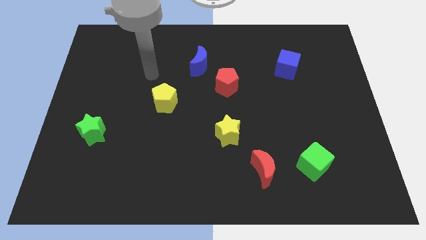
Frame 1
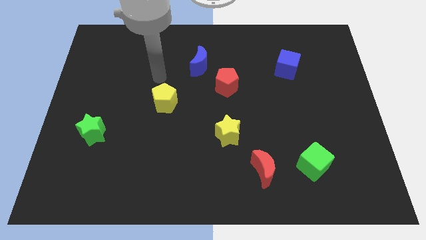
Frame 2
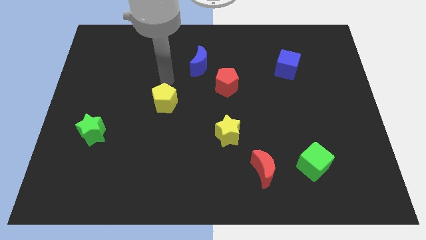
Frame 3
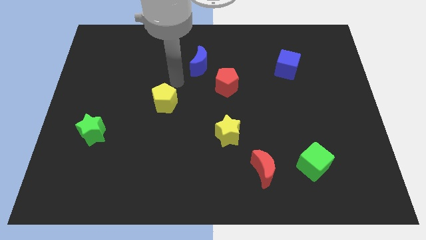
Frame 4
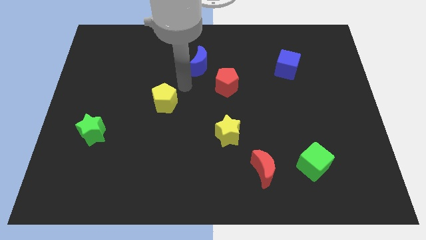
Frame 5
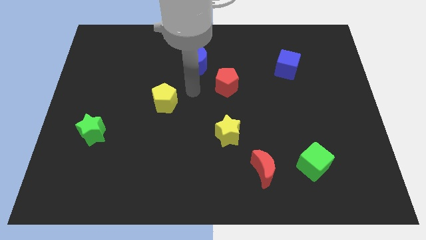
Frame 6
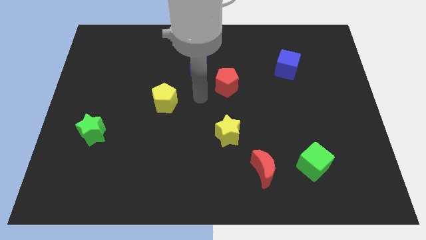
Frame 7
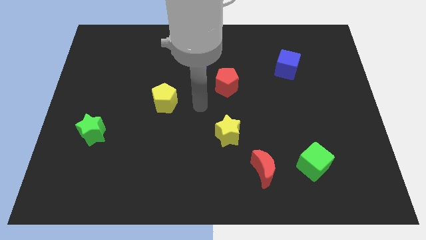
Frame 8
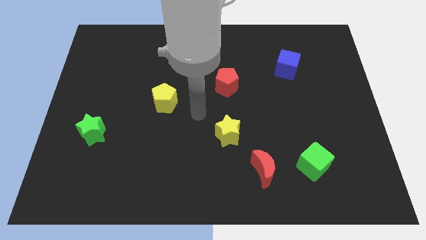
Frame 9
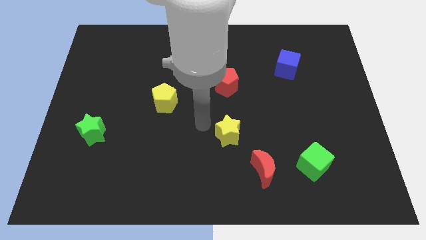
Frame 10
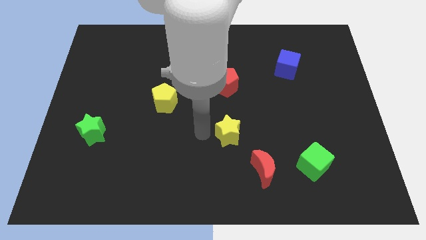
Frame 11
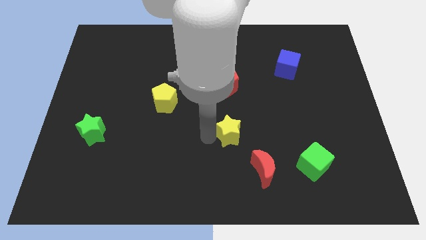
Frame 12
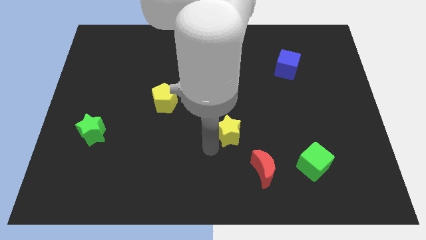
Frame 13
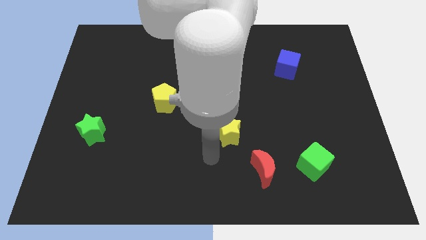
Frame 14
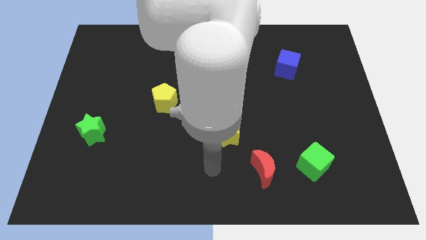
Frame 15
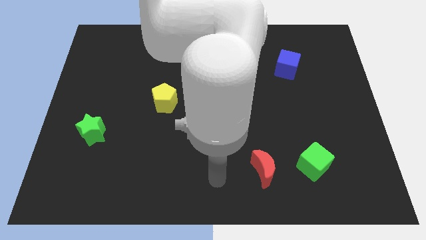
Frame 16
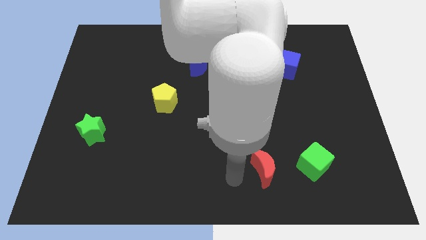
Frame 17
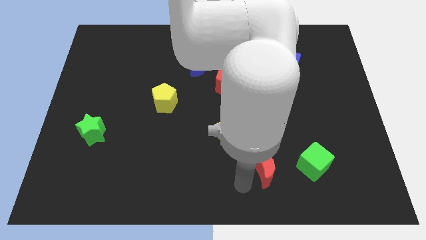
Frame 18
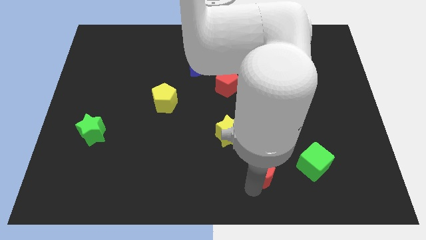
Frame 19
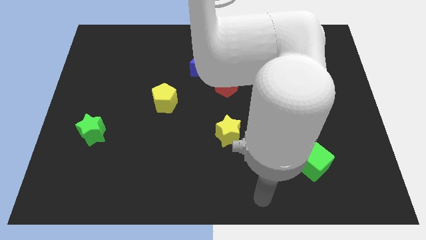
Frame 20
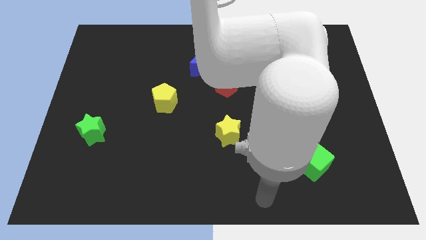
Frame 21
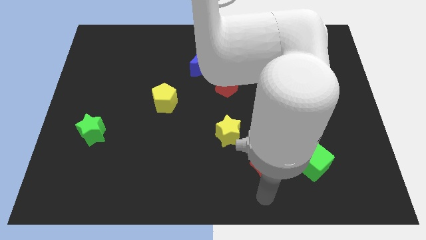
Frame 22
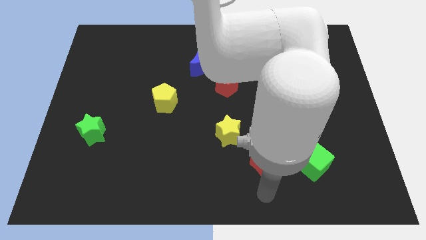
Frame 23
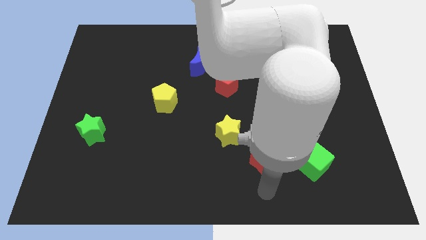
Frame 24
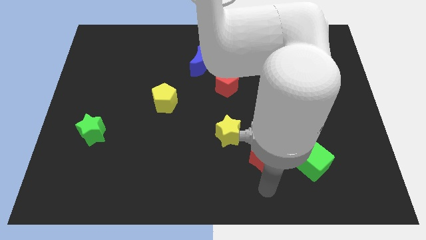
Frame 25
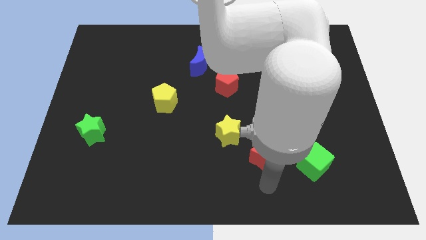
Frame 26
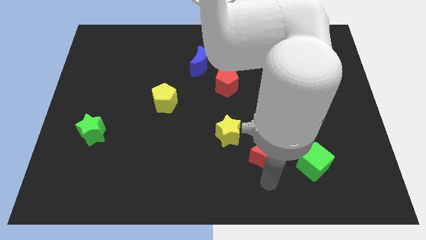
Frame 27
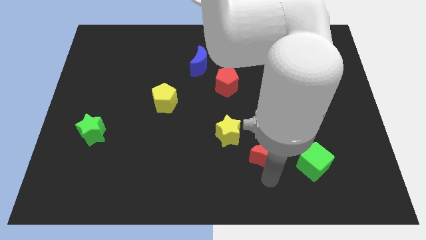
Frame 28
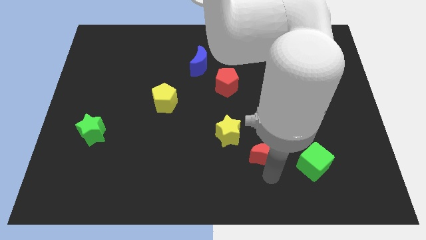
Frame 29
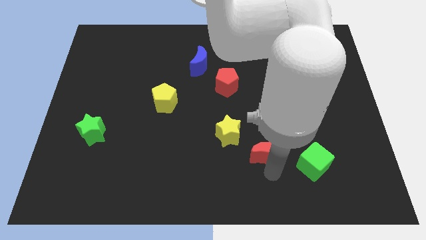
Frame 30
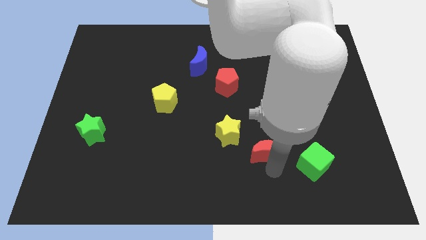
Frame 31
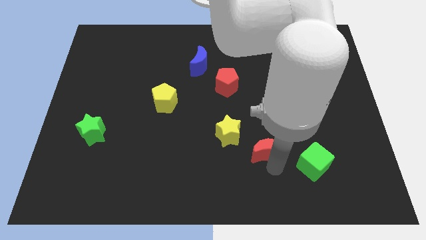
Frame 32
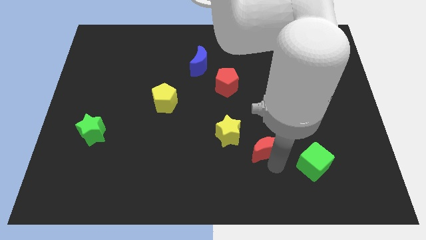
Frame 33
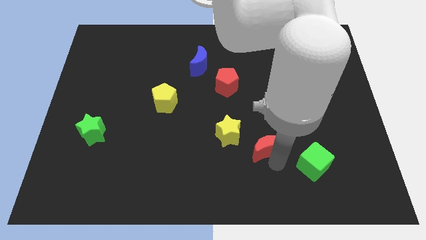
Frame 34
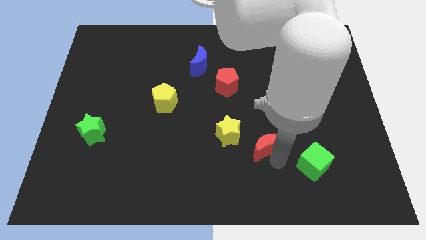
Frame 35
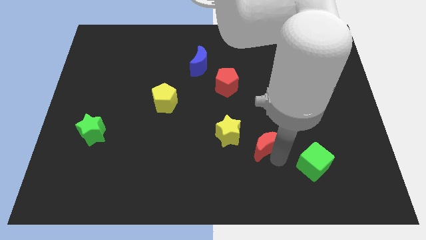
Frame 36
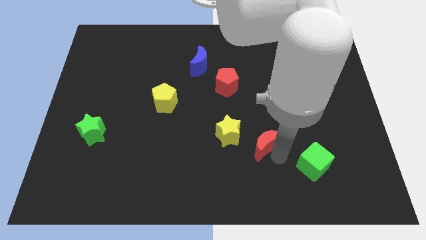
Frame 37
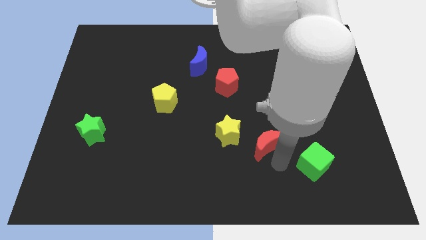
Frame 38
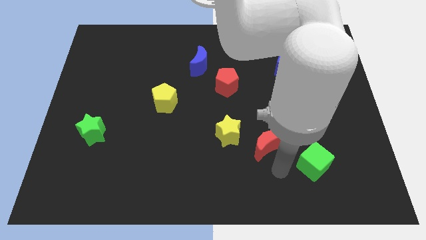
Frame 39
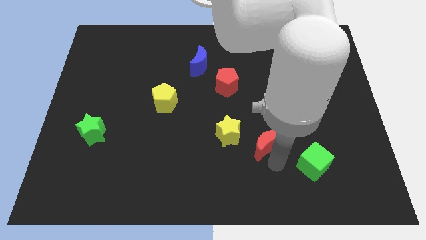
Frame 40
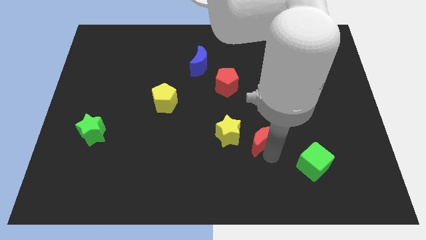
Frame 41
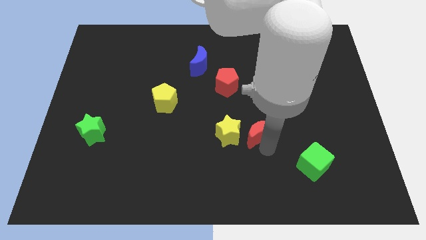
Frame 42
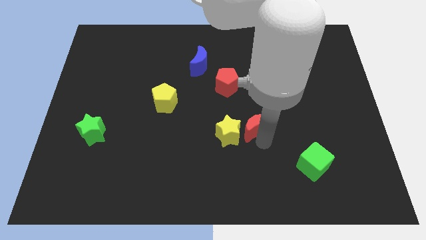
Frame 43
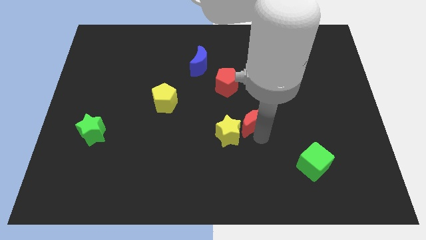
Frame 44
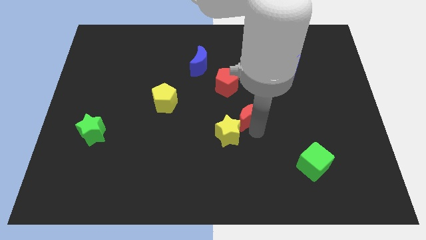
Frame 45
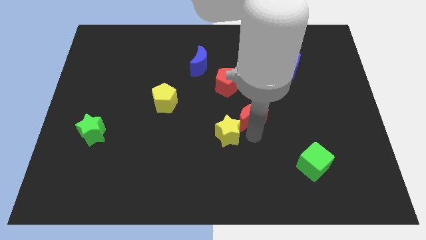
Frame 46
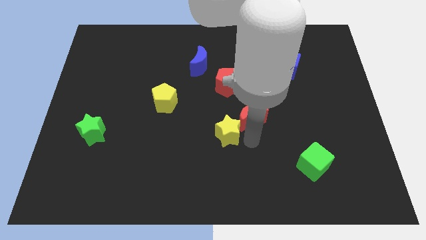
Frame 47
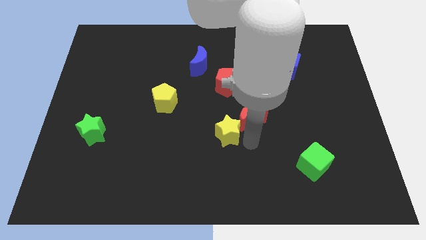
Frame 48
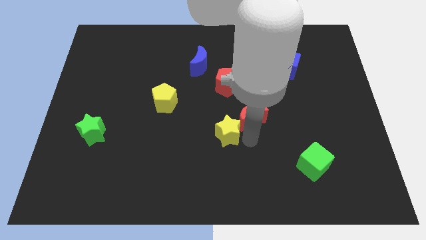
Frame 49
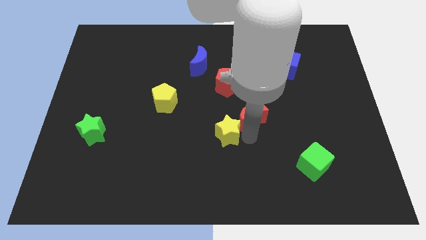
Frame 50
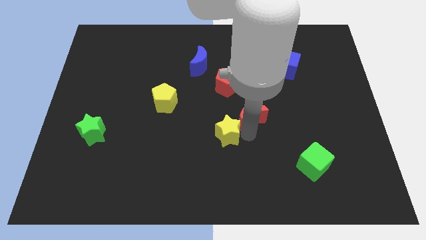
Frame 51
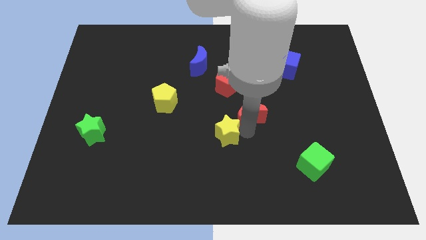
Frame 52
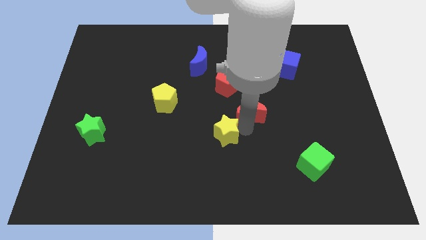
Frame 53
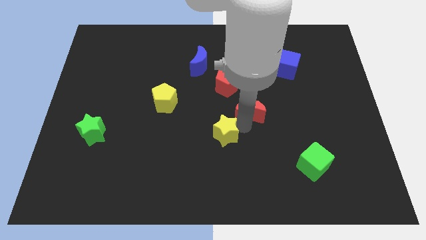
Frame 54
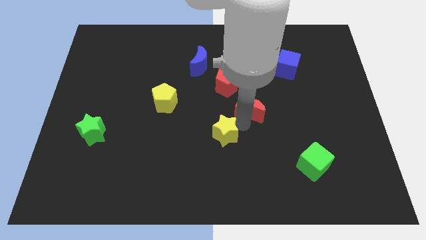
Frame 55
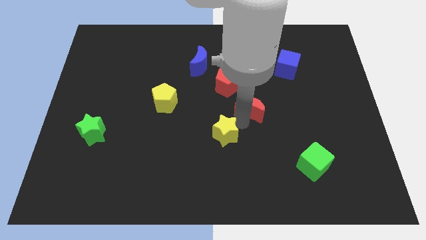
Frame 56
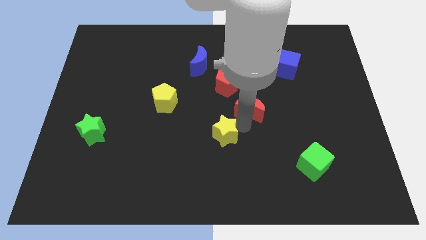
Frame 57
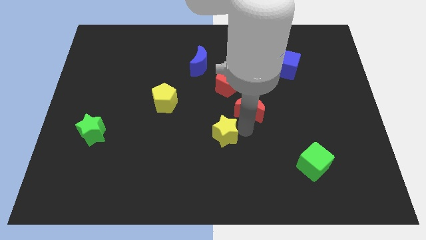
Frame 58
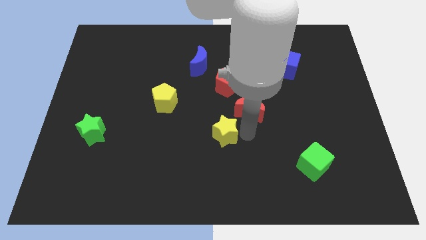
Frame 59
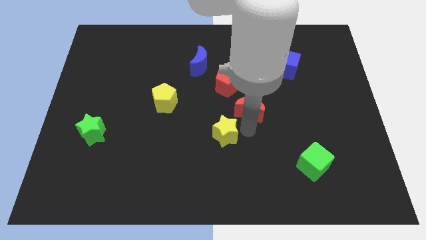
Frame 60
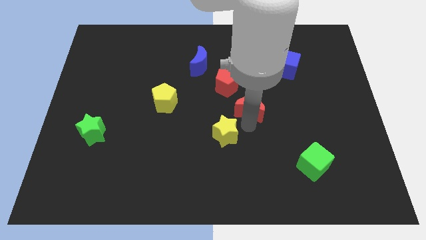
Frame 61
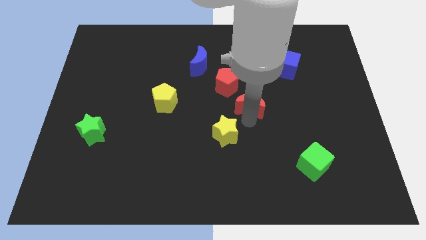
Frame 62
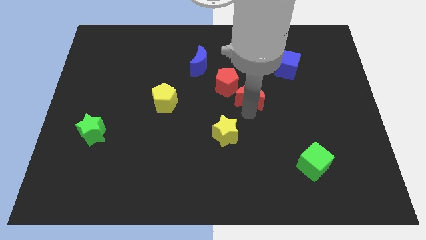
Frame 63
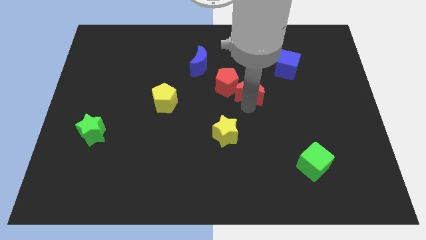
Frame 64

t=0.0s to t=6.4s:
push the red moon up

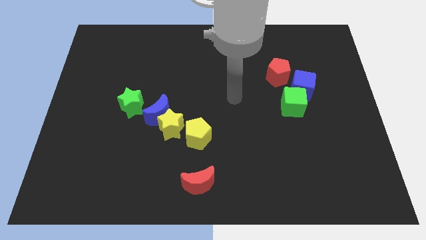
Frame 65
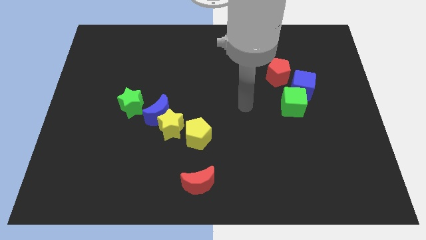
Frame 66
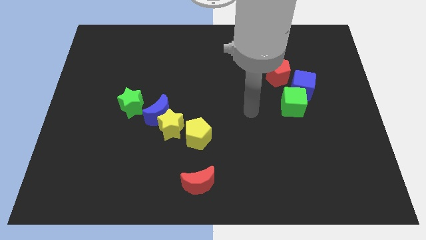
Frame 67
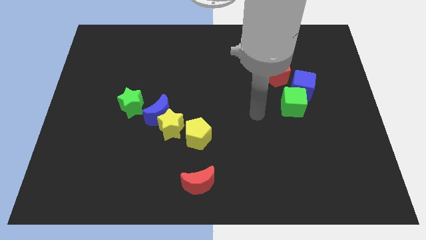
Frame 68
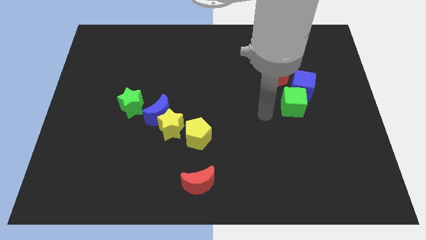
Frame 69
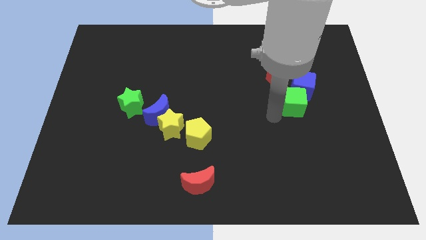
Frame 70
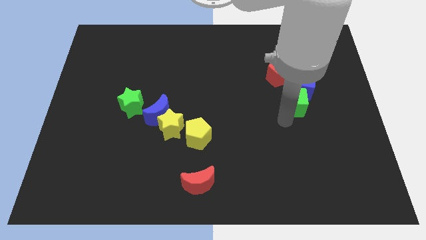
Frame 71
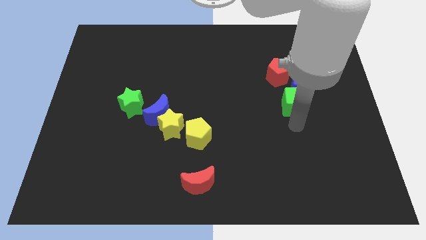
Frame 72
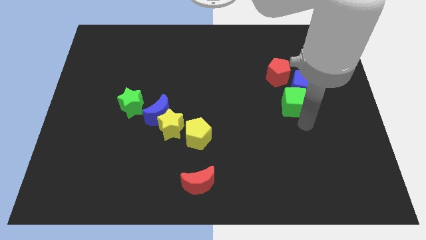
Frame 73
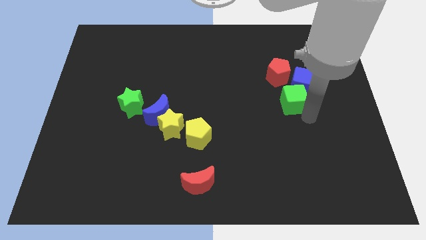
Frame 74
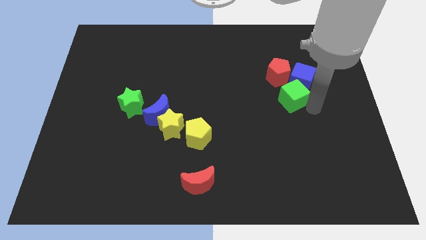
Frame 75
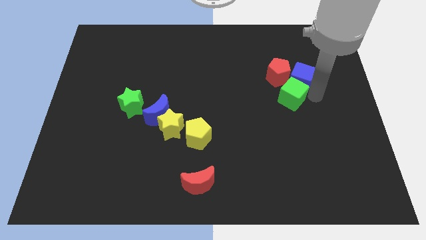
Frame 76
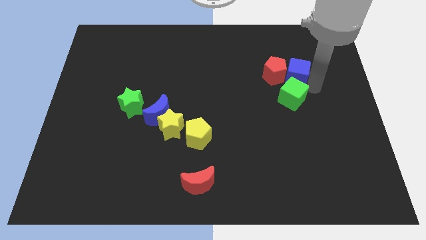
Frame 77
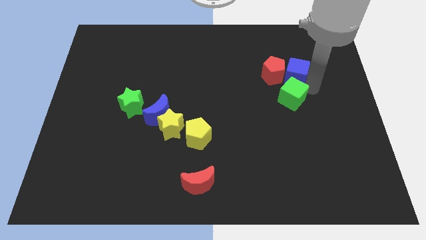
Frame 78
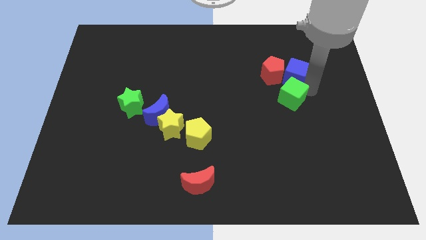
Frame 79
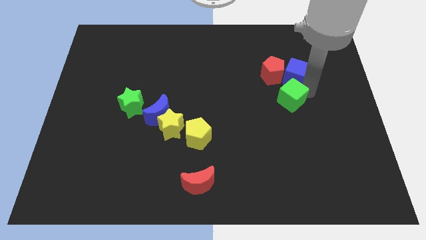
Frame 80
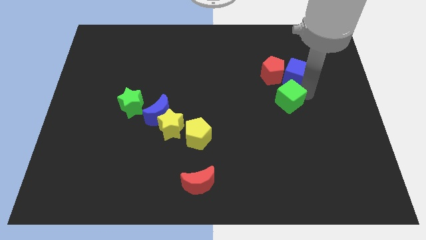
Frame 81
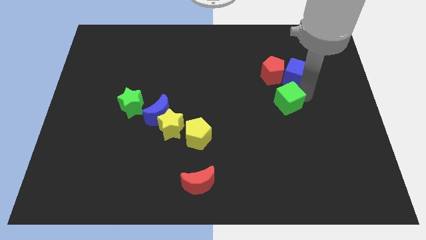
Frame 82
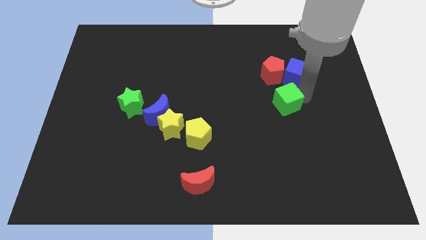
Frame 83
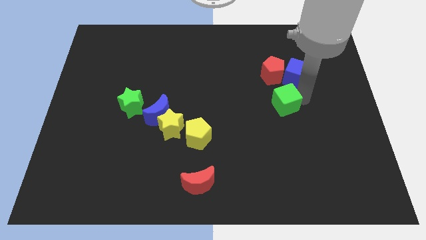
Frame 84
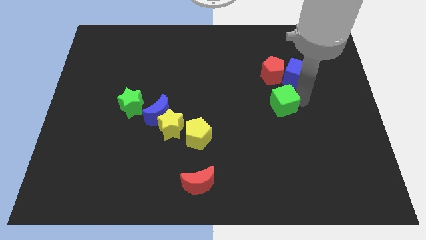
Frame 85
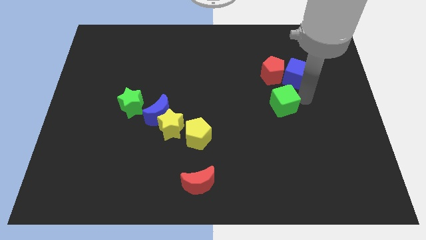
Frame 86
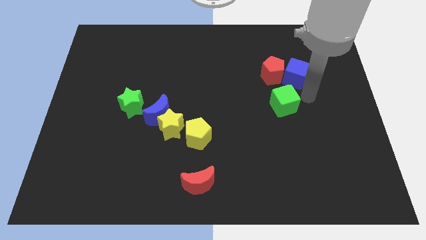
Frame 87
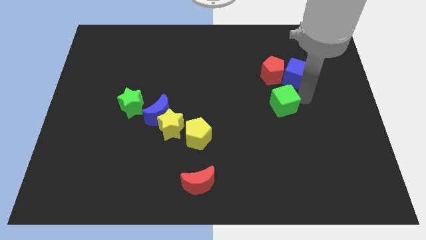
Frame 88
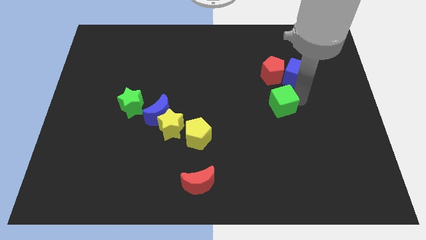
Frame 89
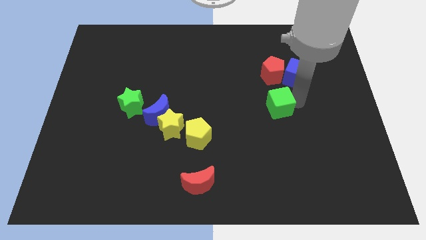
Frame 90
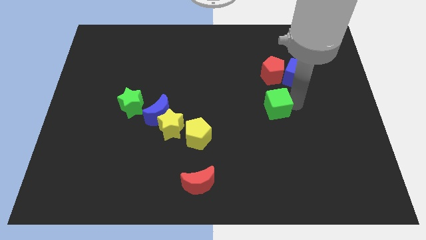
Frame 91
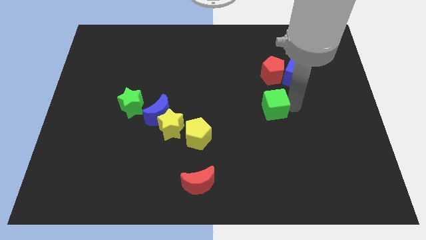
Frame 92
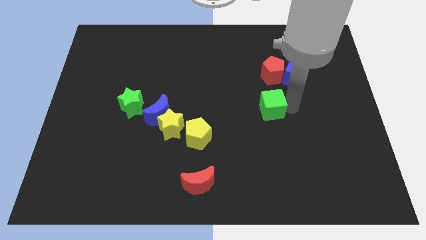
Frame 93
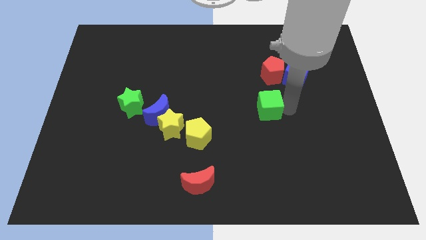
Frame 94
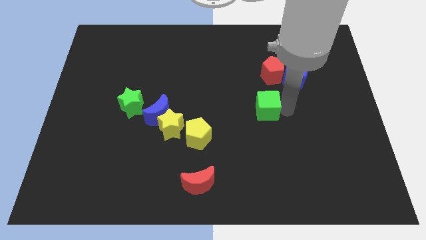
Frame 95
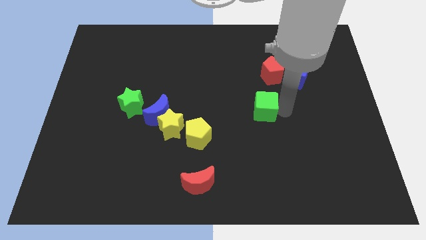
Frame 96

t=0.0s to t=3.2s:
slightly push the green cube left
